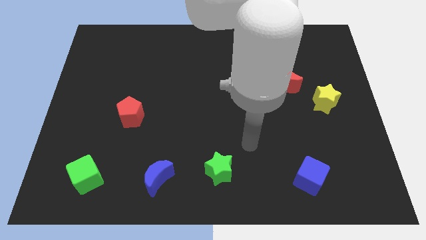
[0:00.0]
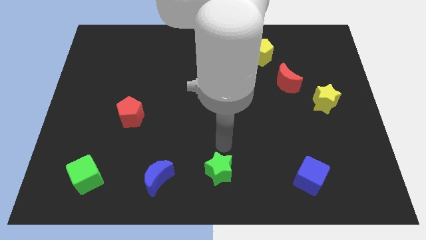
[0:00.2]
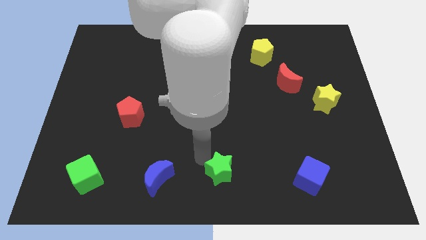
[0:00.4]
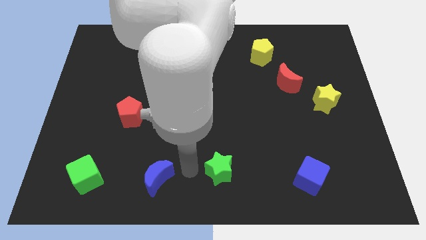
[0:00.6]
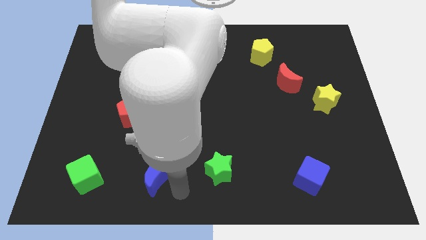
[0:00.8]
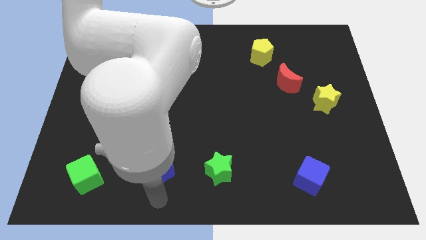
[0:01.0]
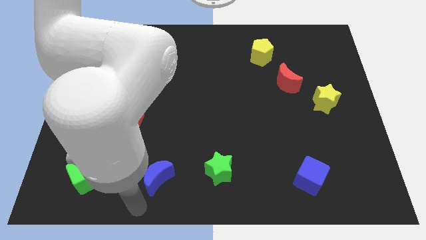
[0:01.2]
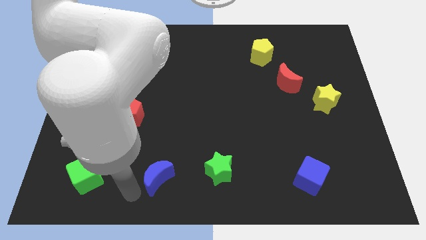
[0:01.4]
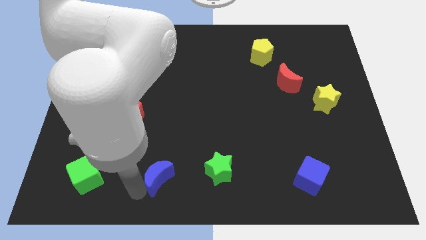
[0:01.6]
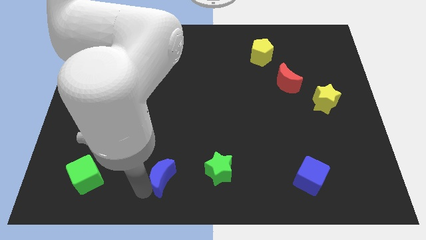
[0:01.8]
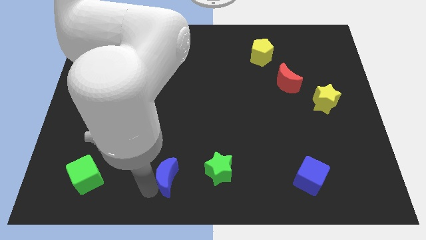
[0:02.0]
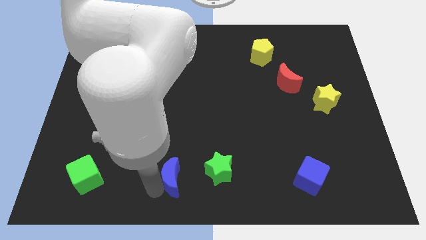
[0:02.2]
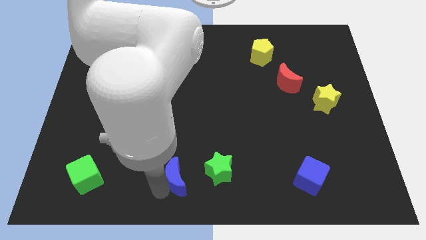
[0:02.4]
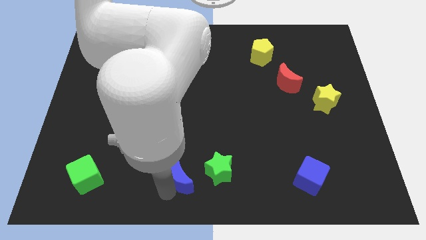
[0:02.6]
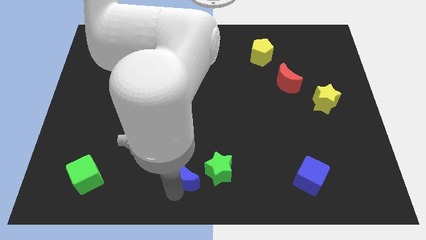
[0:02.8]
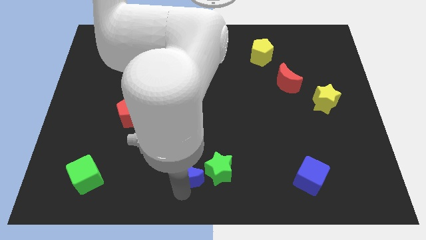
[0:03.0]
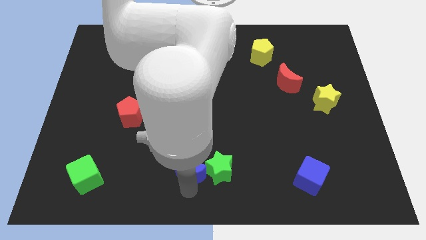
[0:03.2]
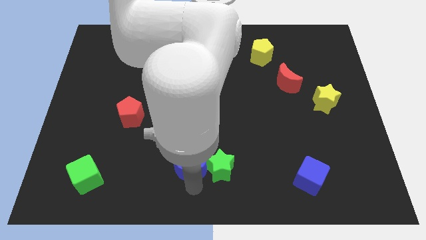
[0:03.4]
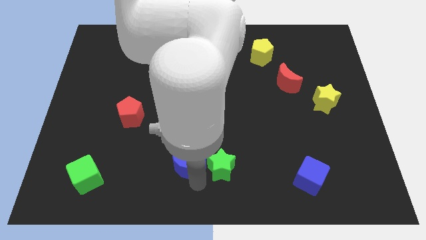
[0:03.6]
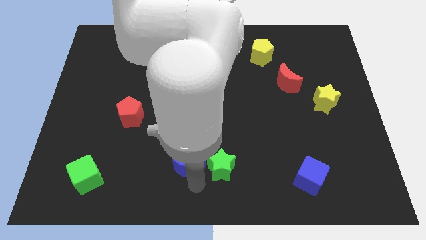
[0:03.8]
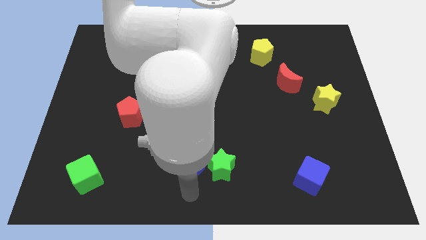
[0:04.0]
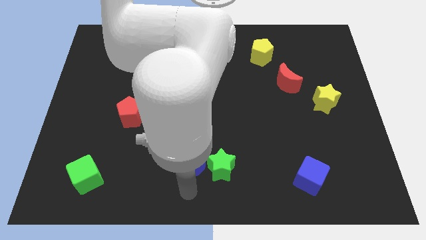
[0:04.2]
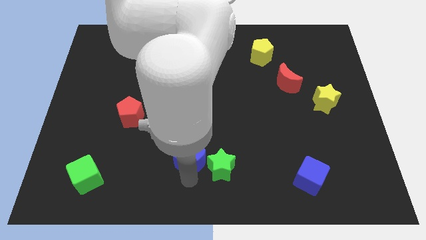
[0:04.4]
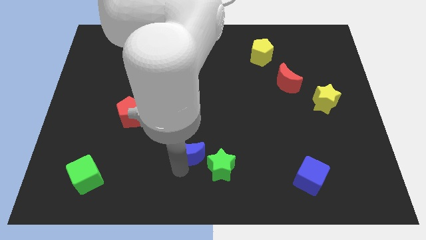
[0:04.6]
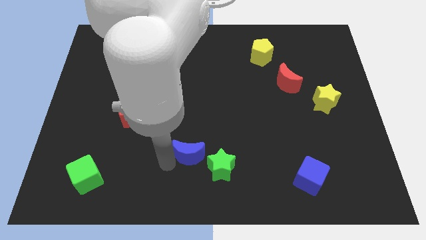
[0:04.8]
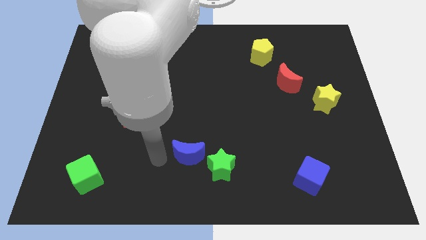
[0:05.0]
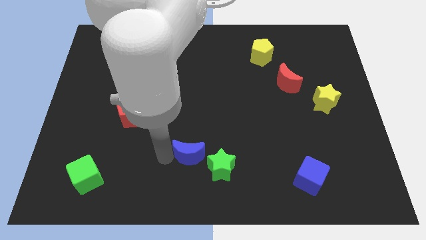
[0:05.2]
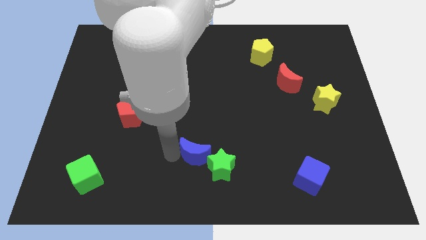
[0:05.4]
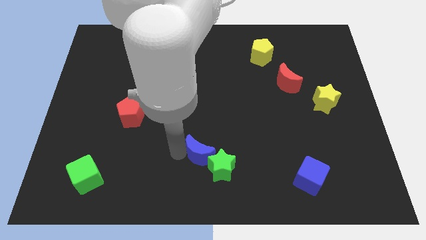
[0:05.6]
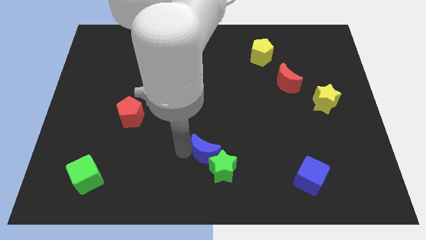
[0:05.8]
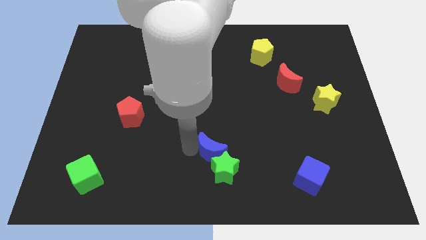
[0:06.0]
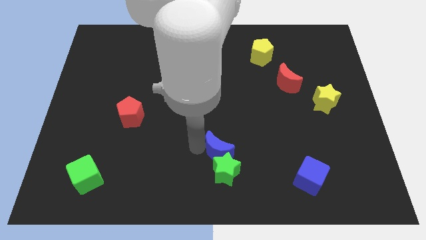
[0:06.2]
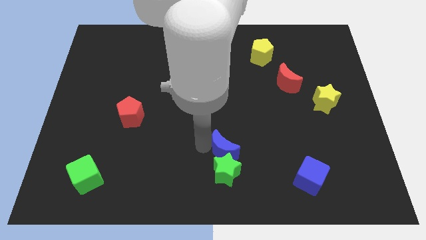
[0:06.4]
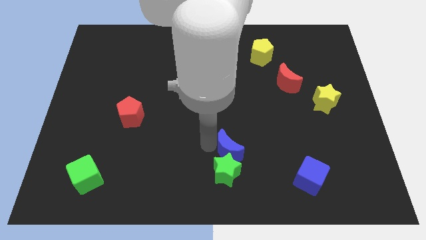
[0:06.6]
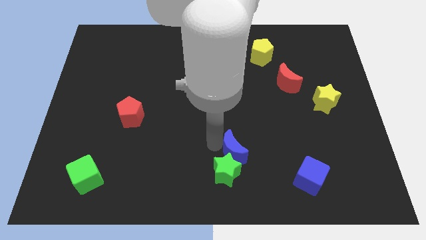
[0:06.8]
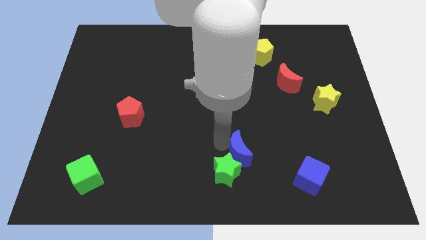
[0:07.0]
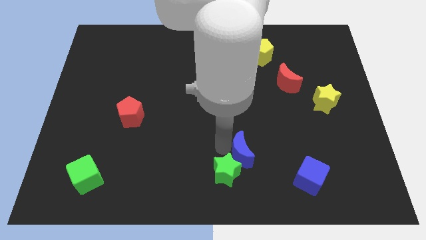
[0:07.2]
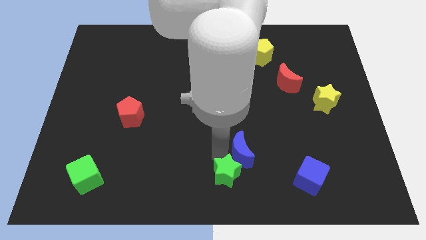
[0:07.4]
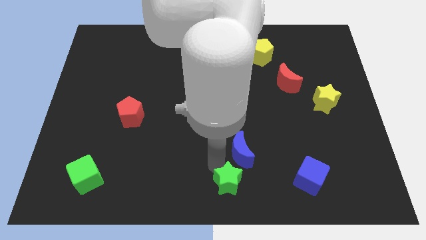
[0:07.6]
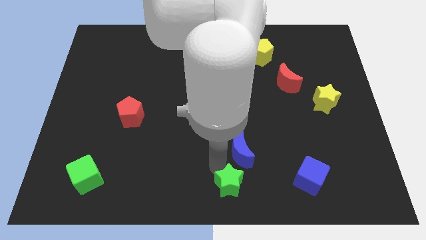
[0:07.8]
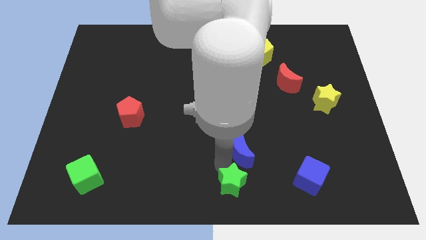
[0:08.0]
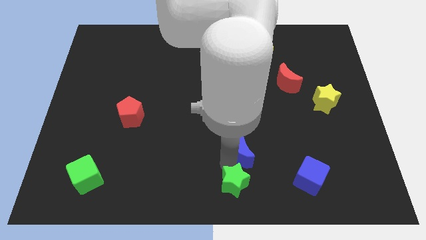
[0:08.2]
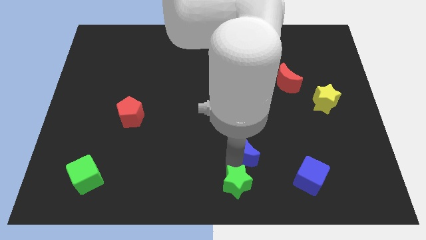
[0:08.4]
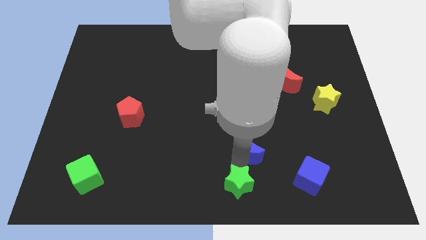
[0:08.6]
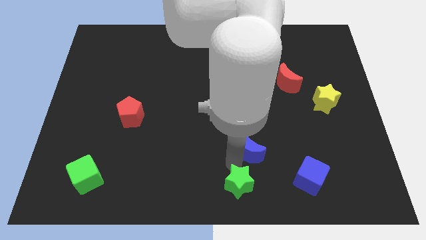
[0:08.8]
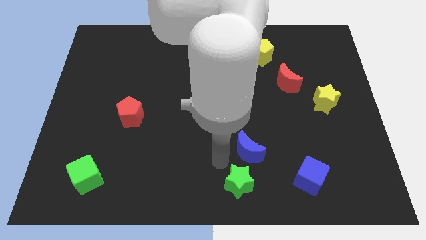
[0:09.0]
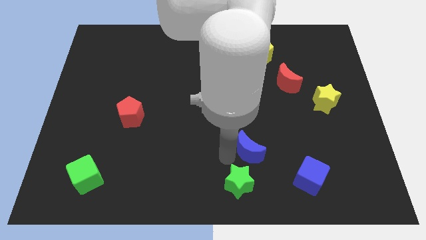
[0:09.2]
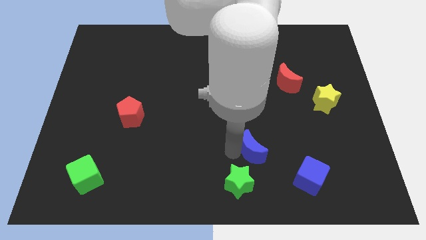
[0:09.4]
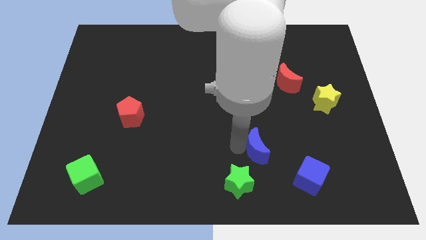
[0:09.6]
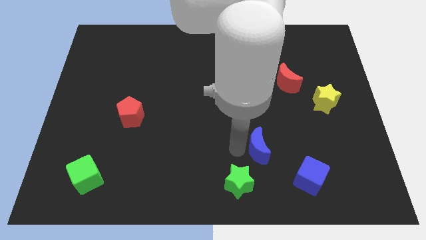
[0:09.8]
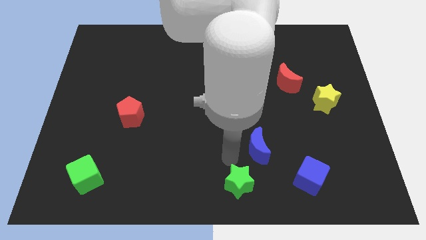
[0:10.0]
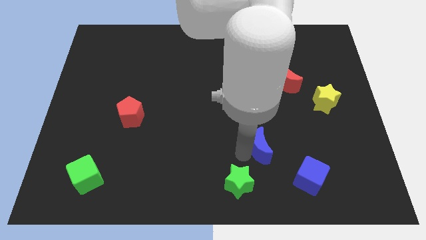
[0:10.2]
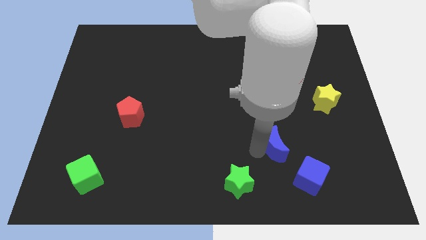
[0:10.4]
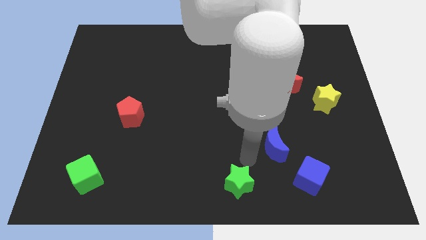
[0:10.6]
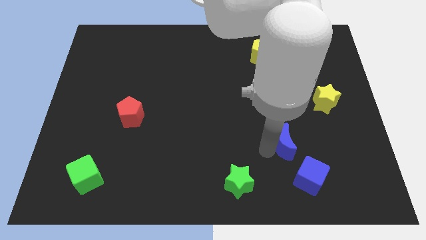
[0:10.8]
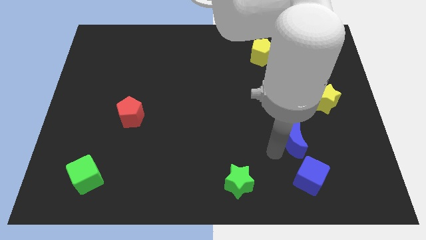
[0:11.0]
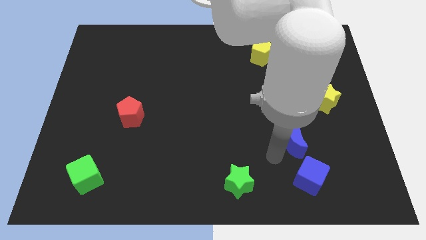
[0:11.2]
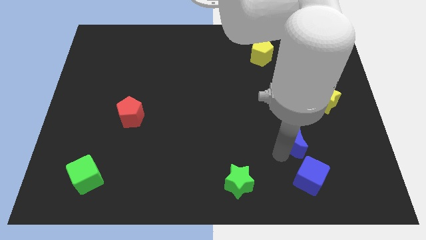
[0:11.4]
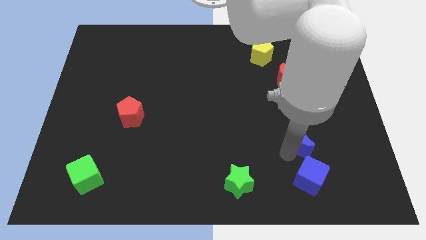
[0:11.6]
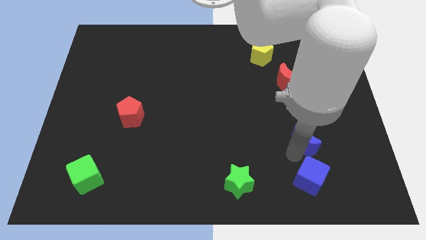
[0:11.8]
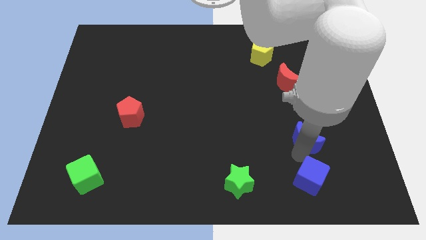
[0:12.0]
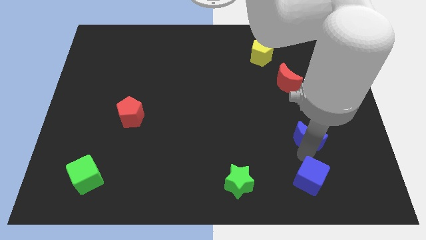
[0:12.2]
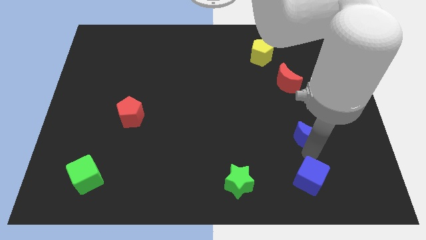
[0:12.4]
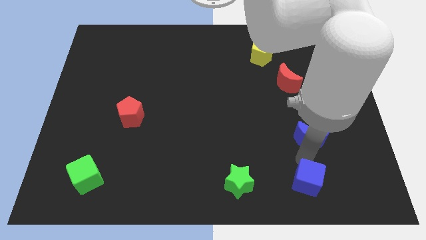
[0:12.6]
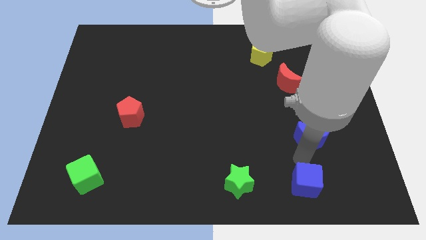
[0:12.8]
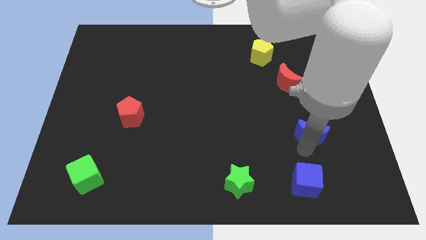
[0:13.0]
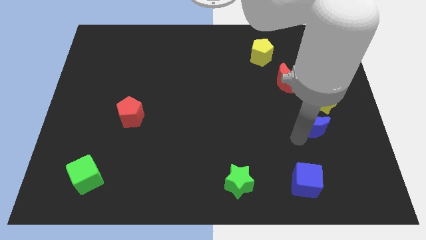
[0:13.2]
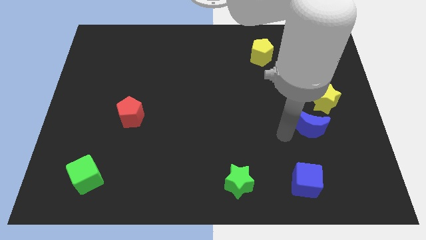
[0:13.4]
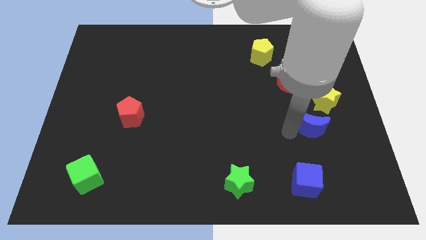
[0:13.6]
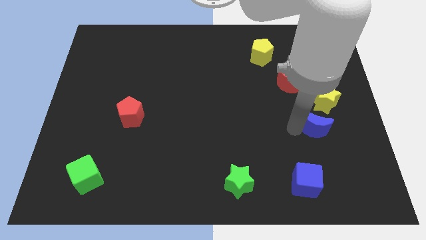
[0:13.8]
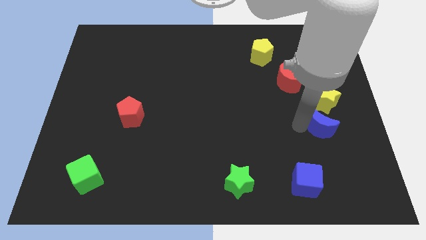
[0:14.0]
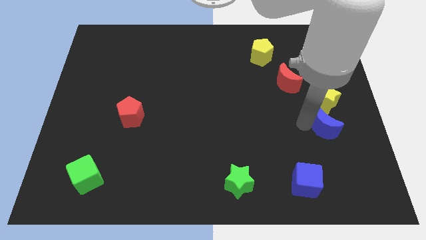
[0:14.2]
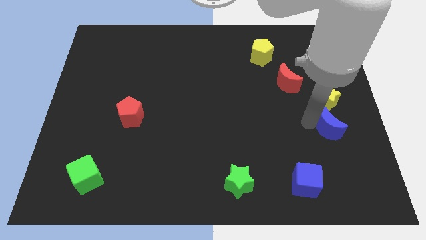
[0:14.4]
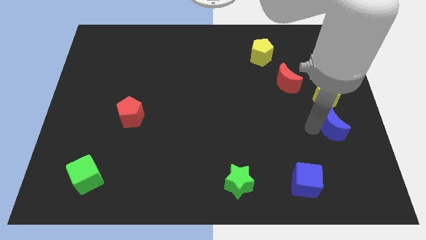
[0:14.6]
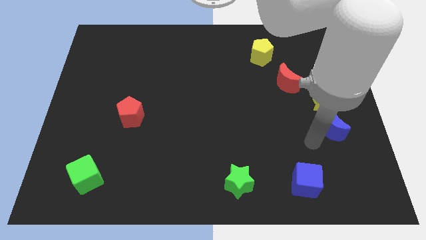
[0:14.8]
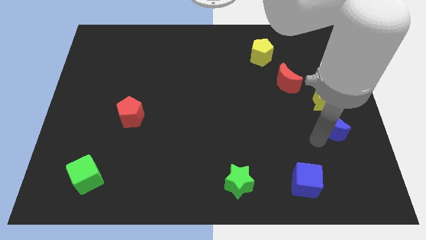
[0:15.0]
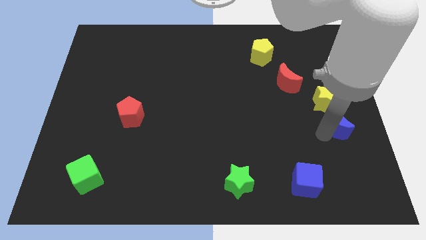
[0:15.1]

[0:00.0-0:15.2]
move the blue moon to the right side
